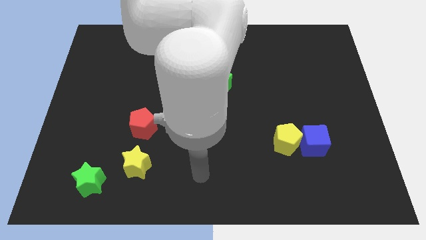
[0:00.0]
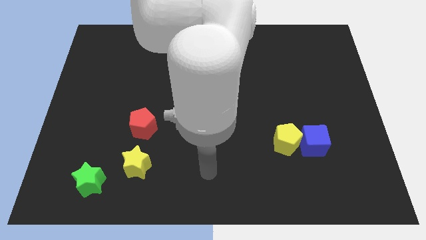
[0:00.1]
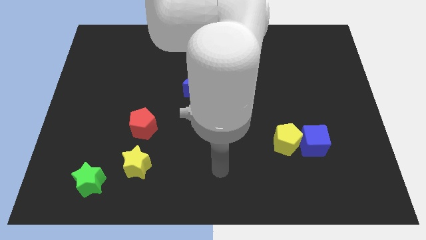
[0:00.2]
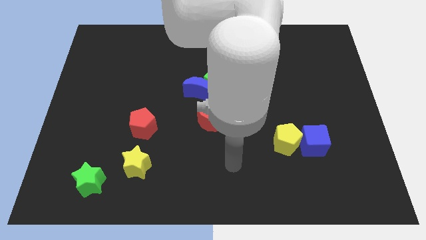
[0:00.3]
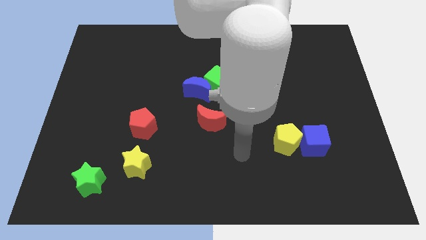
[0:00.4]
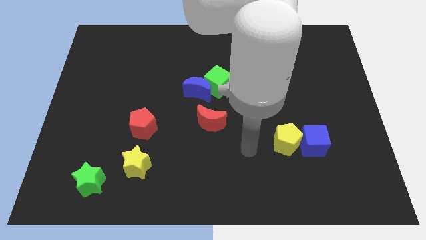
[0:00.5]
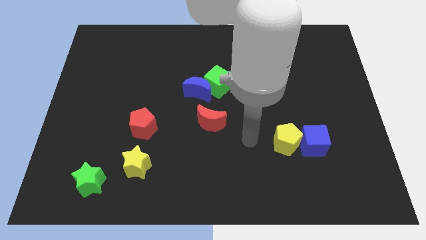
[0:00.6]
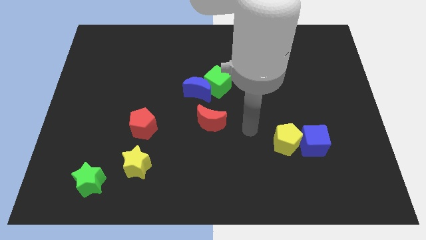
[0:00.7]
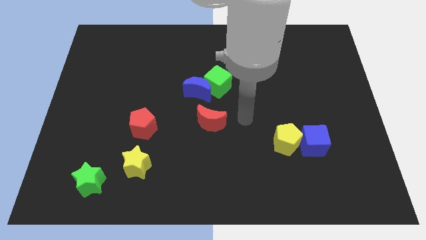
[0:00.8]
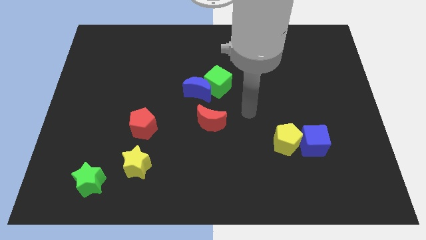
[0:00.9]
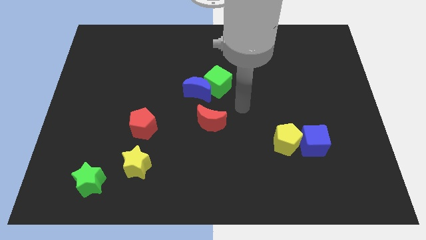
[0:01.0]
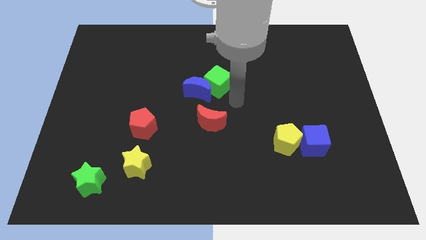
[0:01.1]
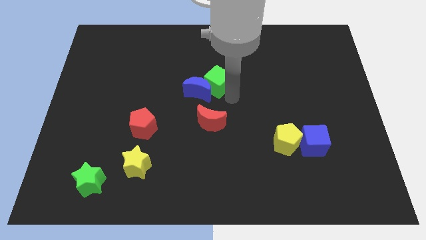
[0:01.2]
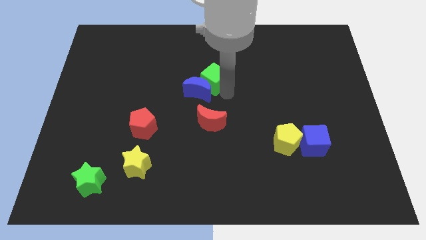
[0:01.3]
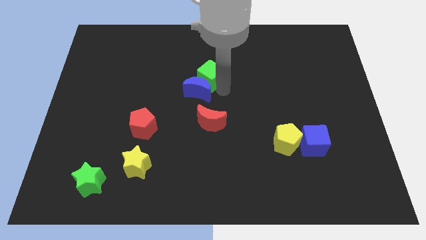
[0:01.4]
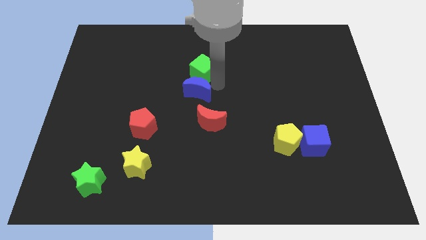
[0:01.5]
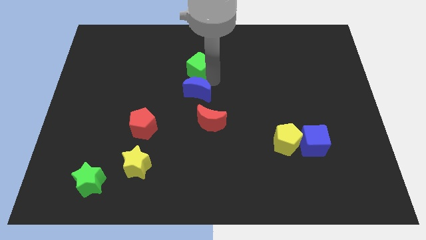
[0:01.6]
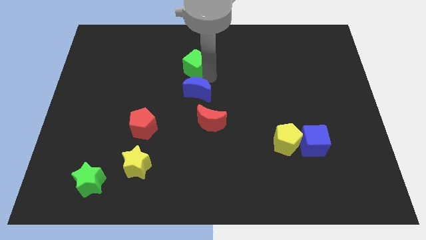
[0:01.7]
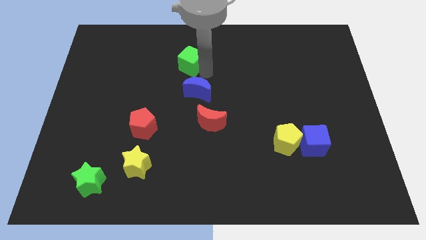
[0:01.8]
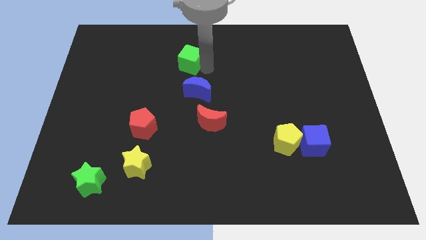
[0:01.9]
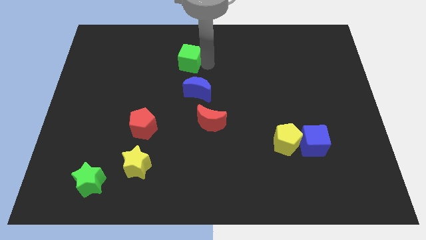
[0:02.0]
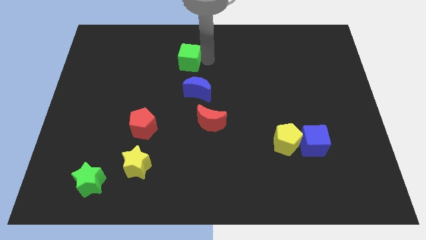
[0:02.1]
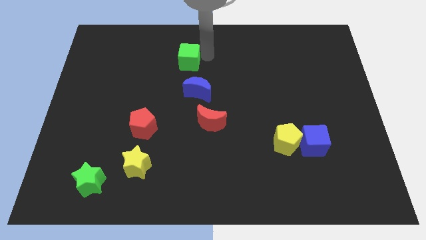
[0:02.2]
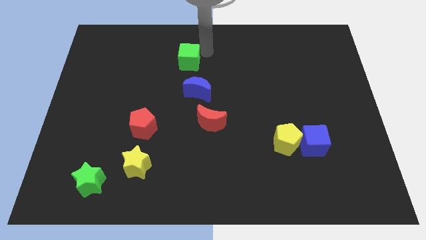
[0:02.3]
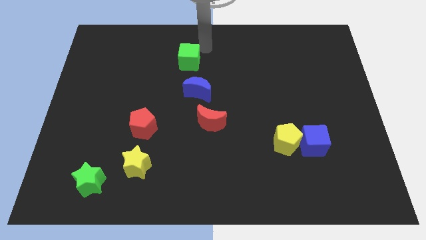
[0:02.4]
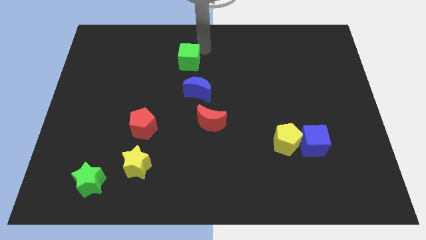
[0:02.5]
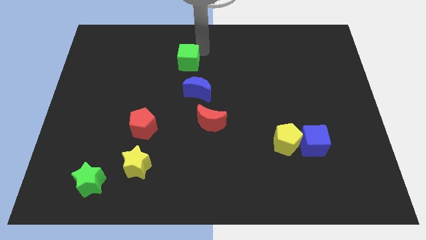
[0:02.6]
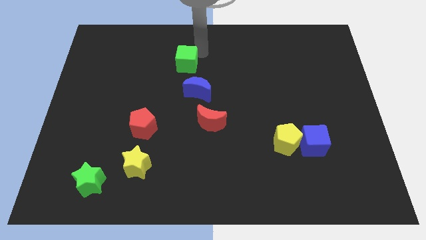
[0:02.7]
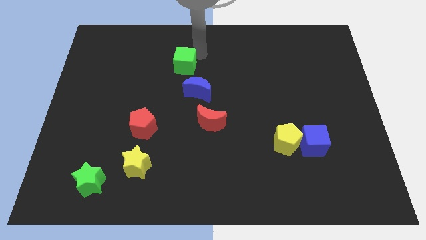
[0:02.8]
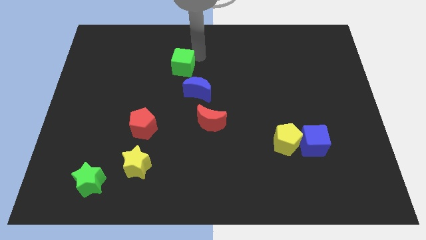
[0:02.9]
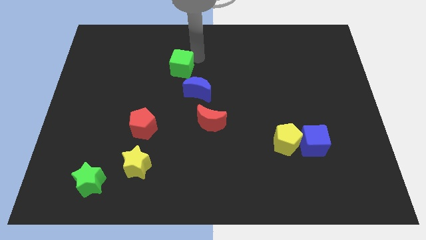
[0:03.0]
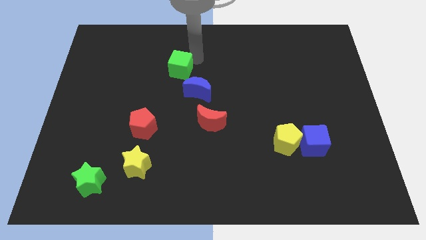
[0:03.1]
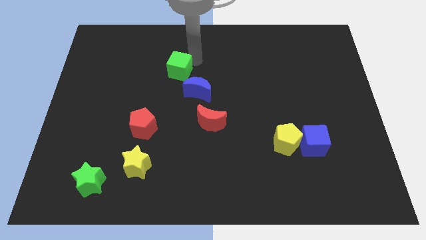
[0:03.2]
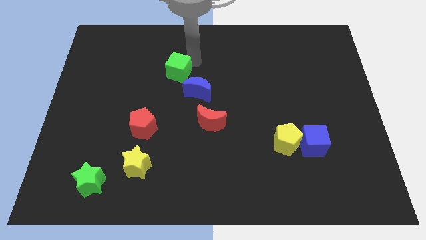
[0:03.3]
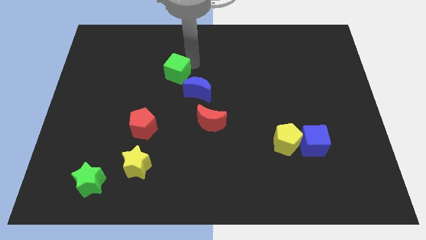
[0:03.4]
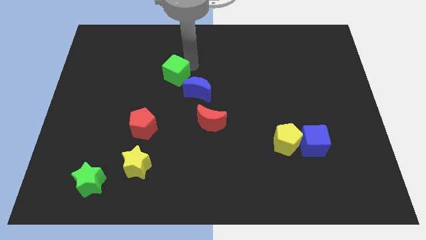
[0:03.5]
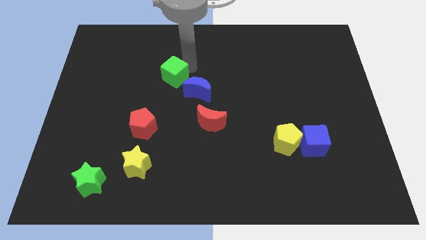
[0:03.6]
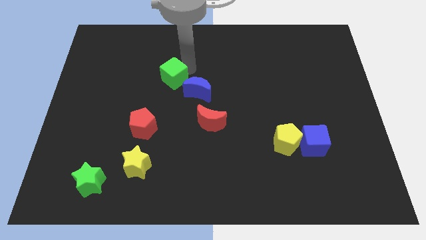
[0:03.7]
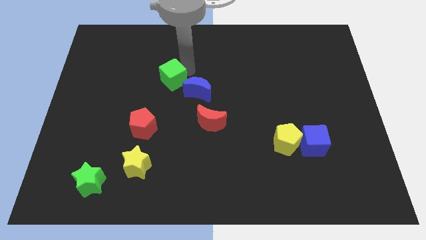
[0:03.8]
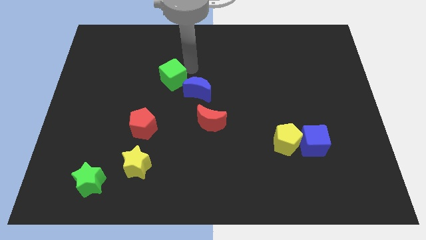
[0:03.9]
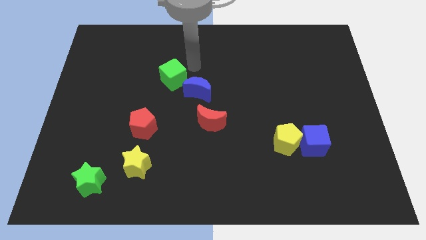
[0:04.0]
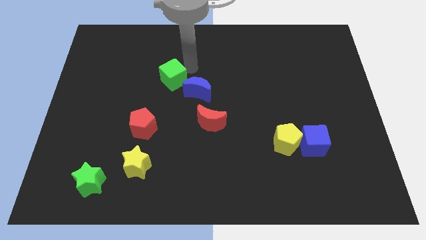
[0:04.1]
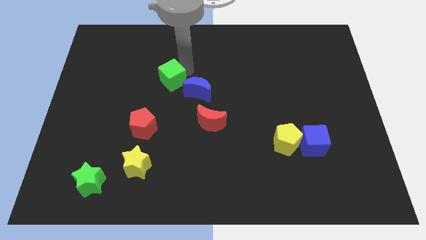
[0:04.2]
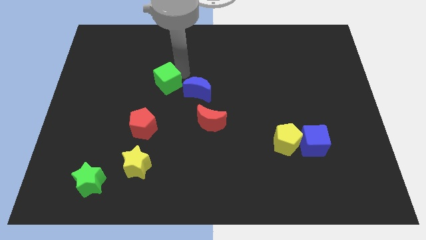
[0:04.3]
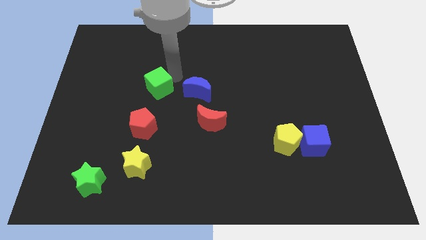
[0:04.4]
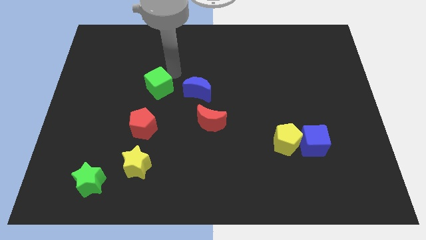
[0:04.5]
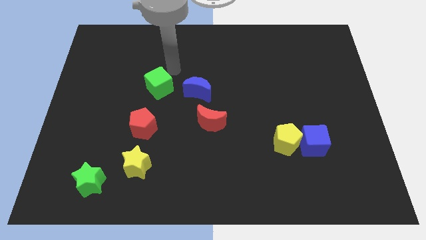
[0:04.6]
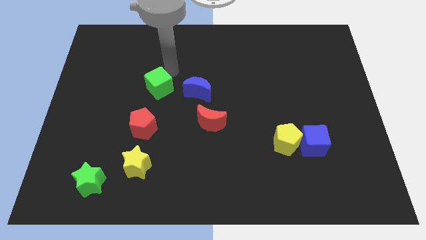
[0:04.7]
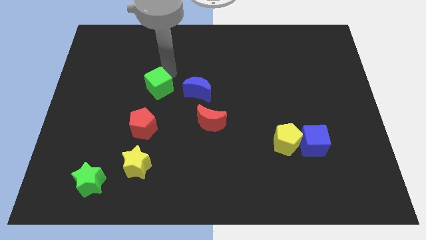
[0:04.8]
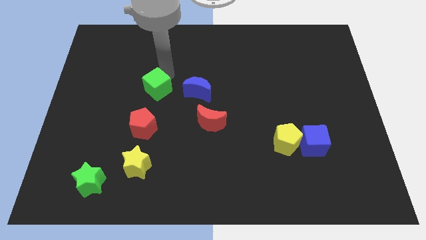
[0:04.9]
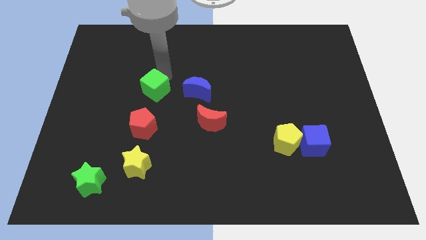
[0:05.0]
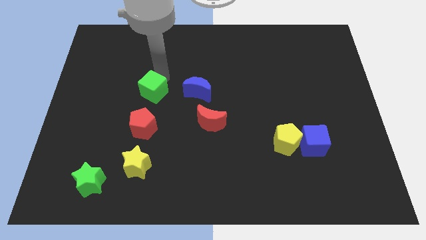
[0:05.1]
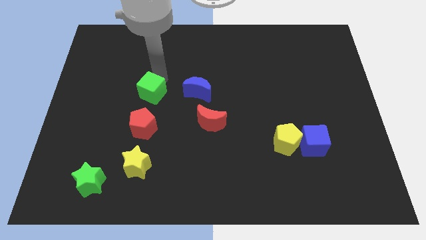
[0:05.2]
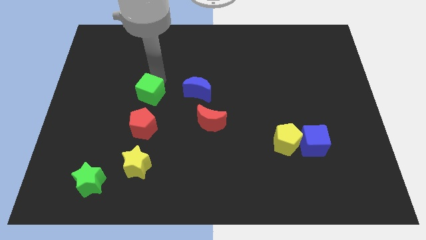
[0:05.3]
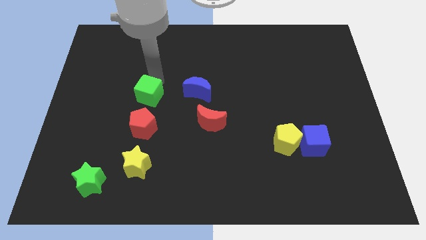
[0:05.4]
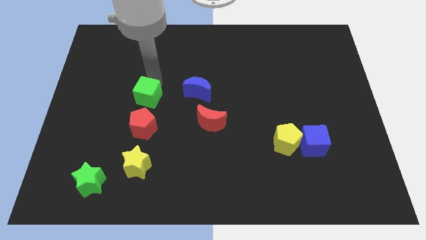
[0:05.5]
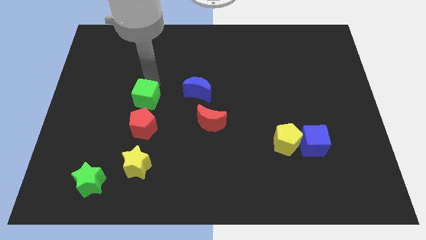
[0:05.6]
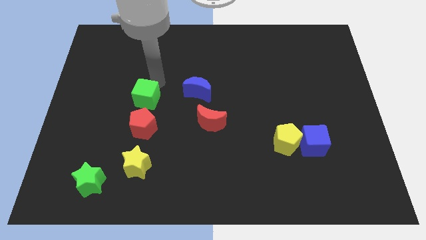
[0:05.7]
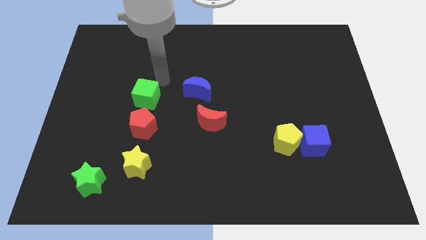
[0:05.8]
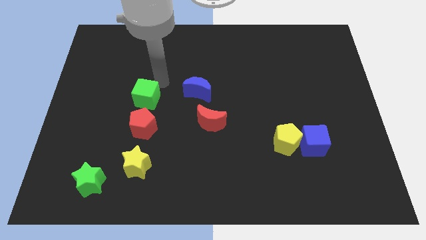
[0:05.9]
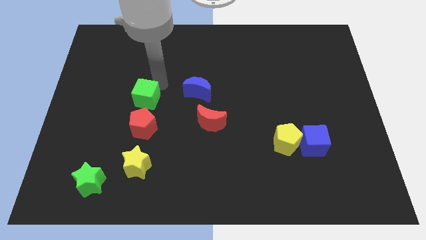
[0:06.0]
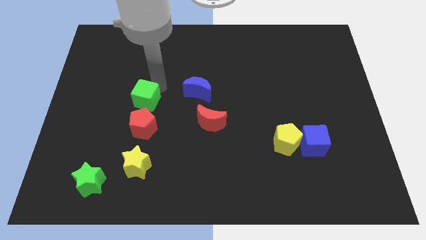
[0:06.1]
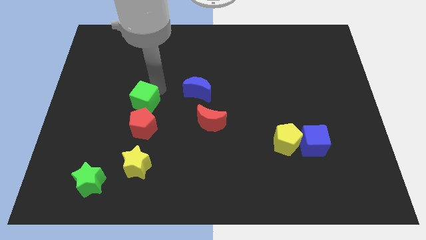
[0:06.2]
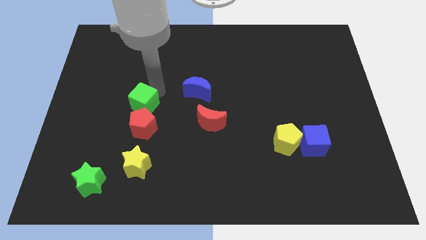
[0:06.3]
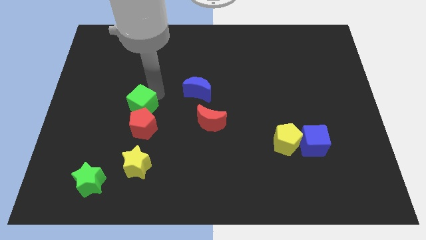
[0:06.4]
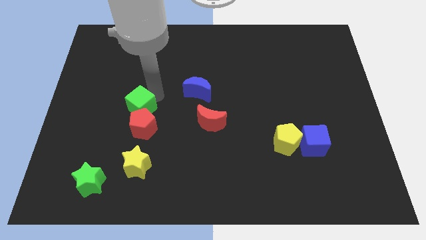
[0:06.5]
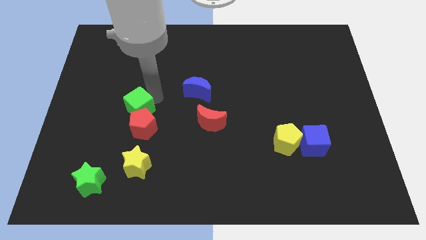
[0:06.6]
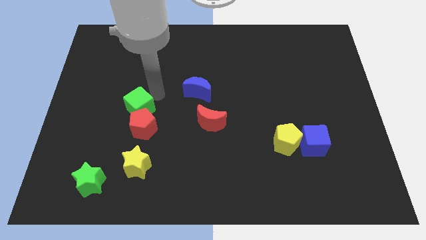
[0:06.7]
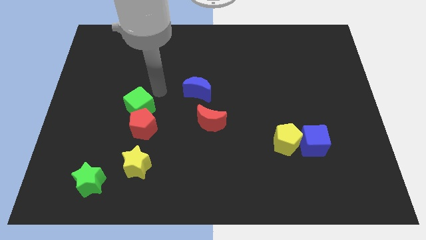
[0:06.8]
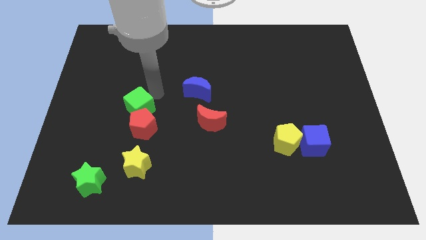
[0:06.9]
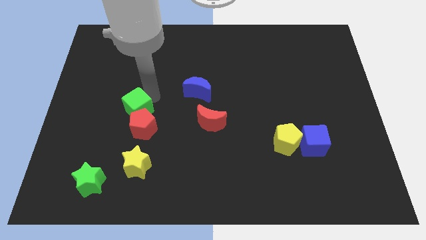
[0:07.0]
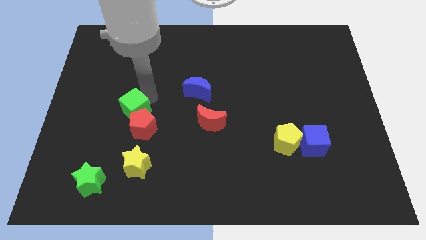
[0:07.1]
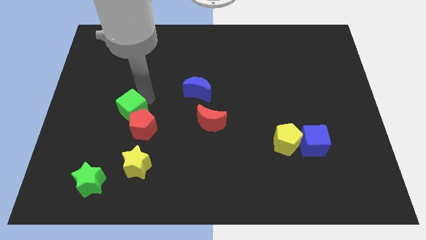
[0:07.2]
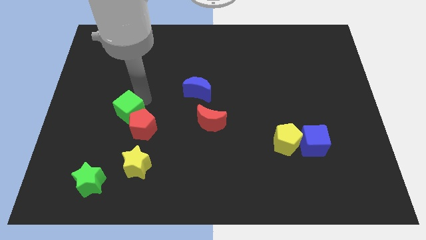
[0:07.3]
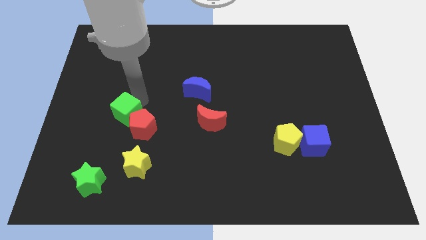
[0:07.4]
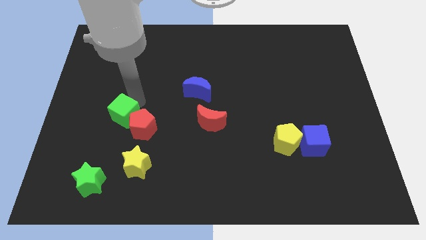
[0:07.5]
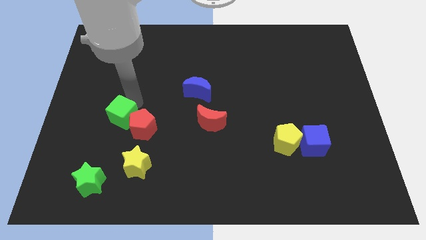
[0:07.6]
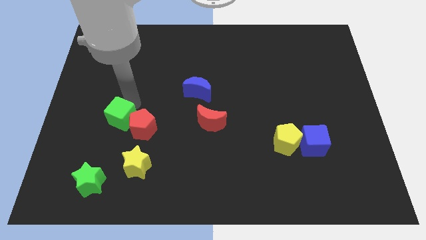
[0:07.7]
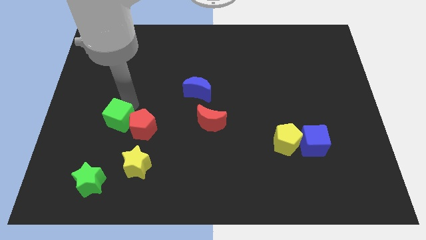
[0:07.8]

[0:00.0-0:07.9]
slide the green cube downwards and then to the left

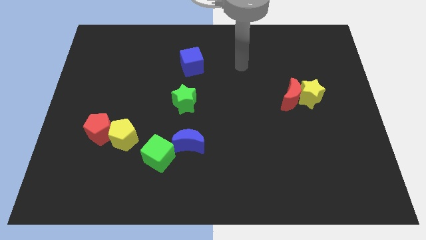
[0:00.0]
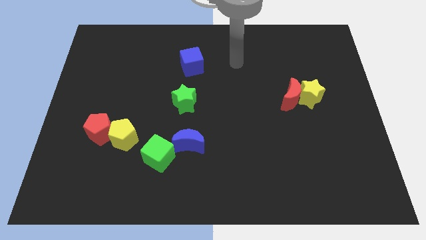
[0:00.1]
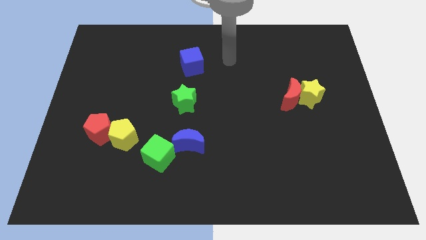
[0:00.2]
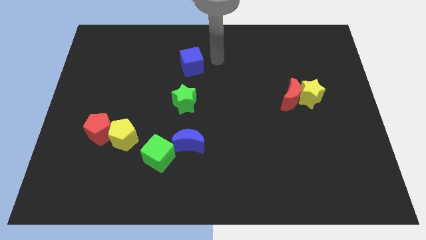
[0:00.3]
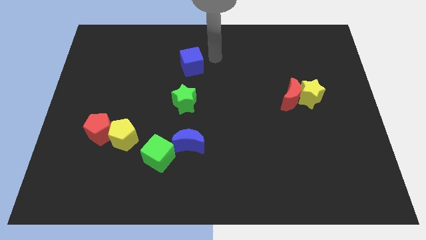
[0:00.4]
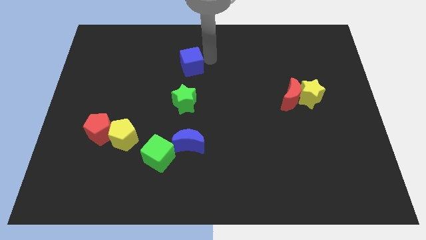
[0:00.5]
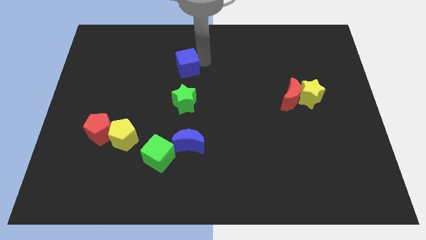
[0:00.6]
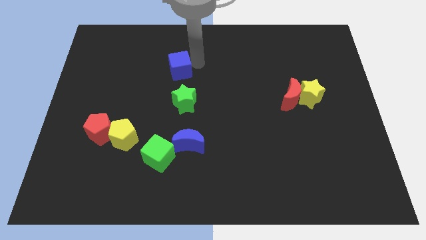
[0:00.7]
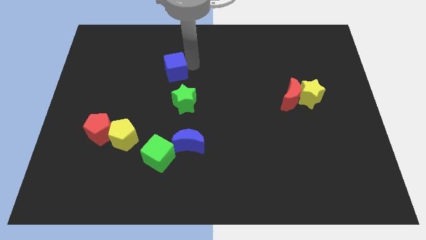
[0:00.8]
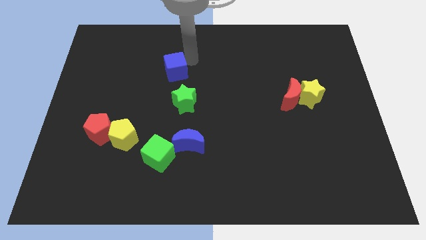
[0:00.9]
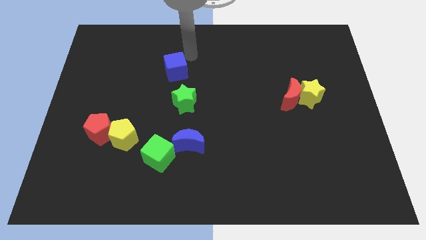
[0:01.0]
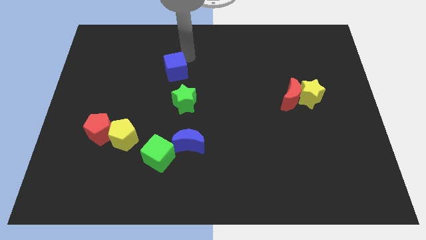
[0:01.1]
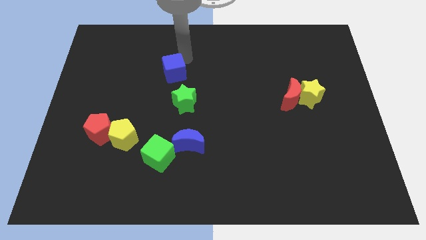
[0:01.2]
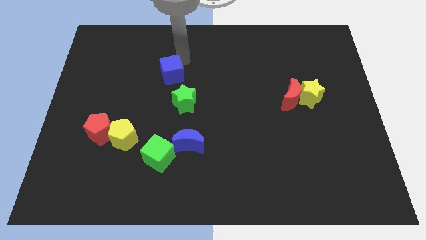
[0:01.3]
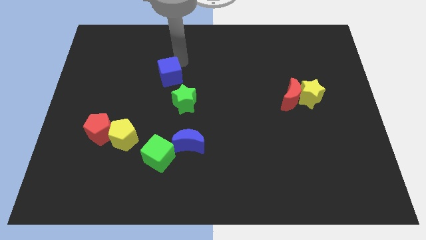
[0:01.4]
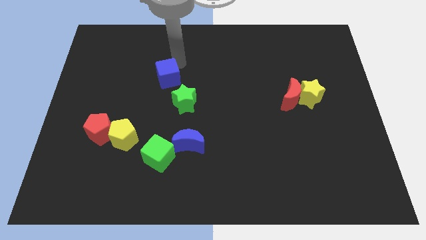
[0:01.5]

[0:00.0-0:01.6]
move the blue cube down and left a bit
